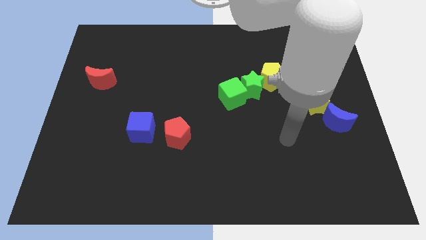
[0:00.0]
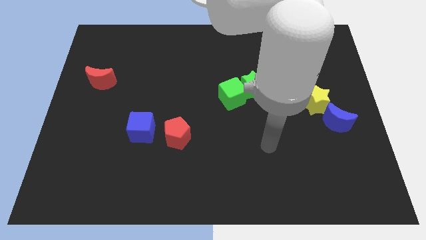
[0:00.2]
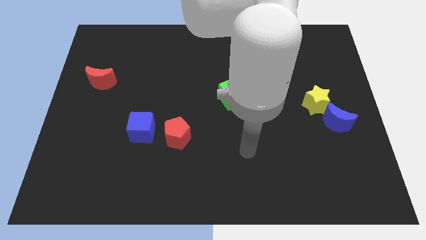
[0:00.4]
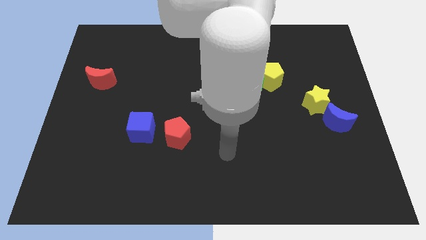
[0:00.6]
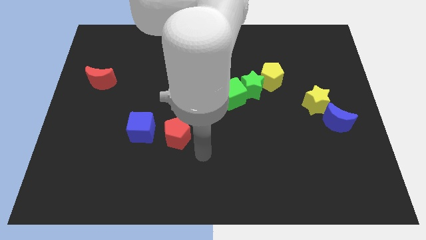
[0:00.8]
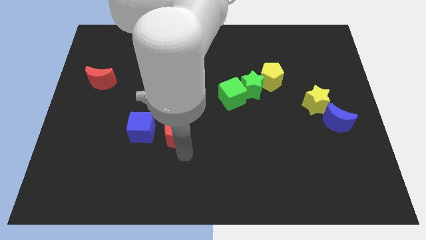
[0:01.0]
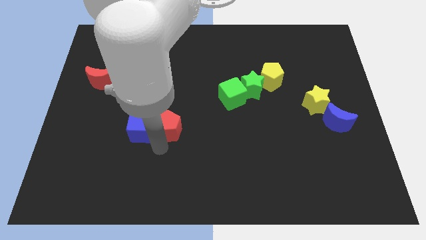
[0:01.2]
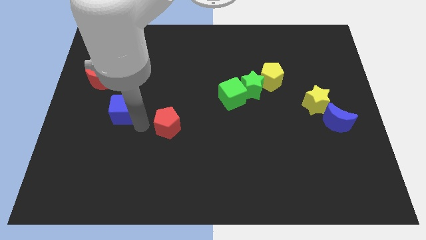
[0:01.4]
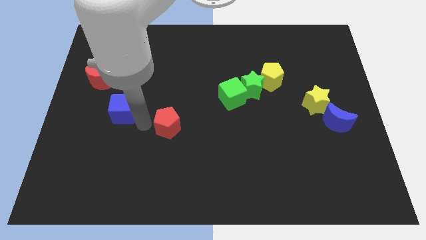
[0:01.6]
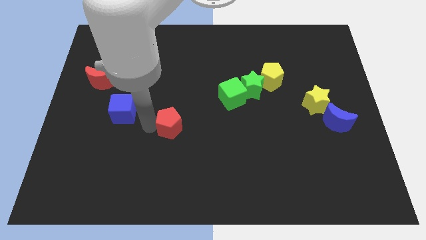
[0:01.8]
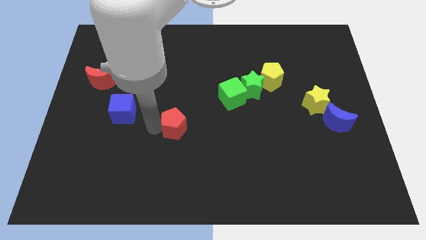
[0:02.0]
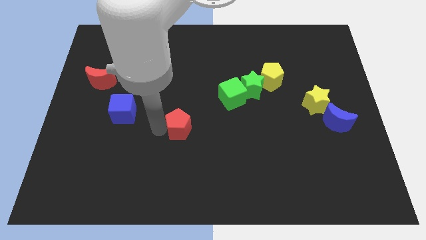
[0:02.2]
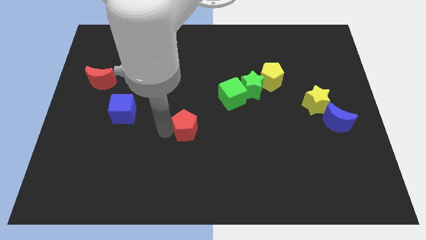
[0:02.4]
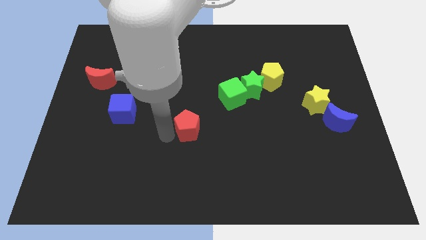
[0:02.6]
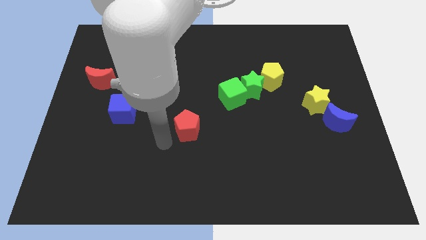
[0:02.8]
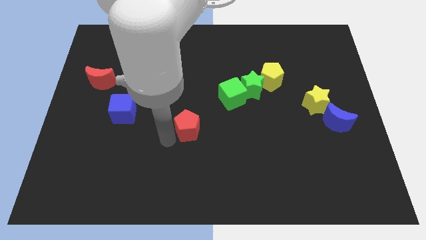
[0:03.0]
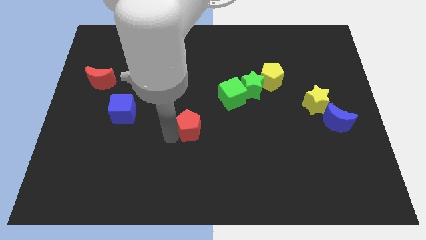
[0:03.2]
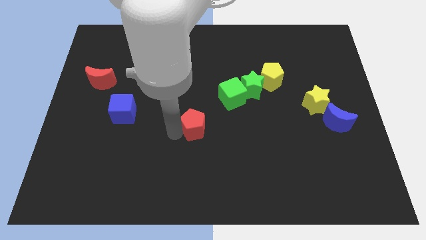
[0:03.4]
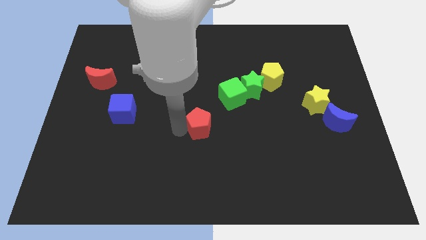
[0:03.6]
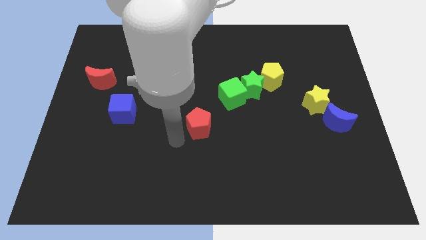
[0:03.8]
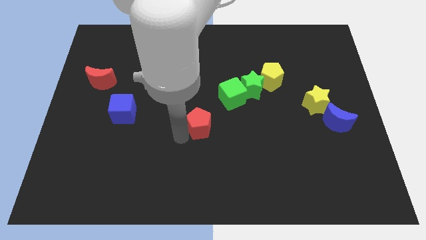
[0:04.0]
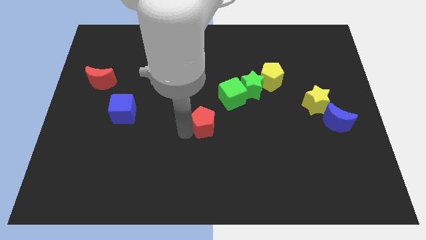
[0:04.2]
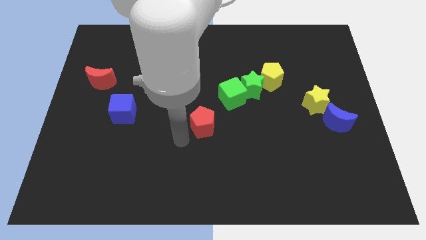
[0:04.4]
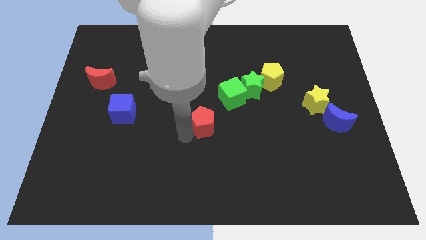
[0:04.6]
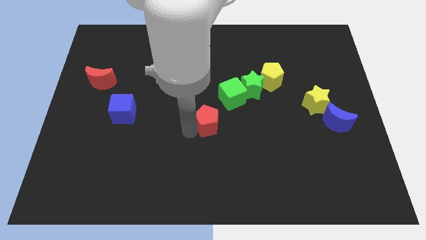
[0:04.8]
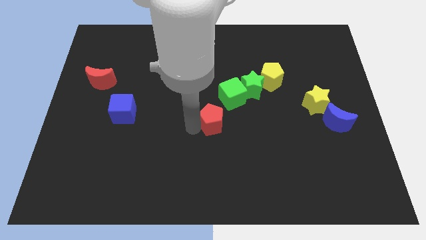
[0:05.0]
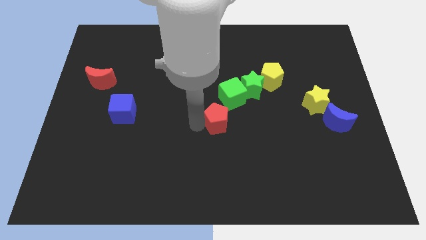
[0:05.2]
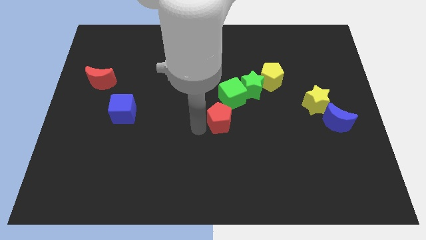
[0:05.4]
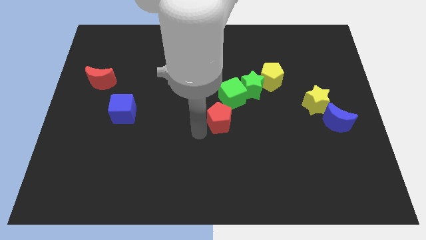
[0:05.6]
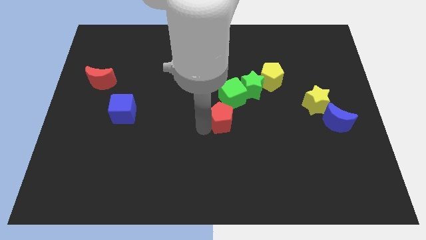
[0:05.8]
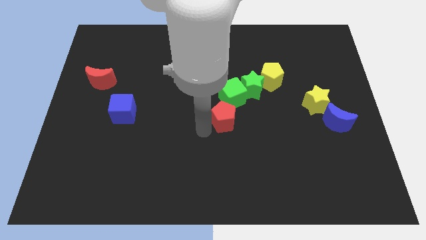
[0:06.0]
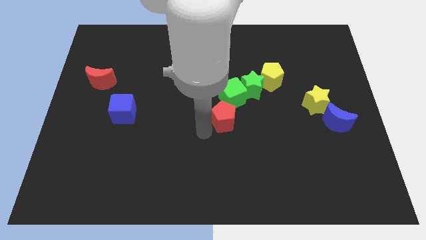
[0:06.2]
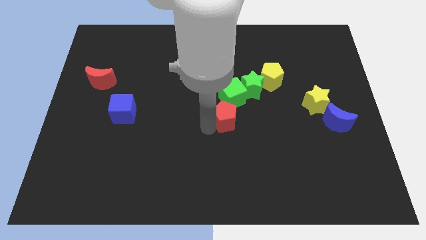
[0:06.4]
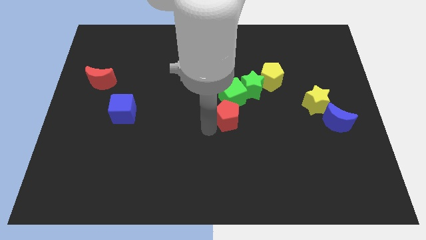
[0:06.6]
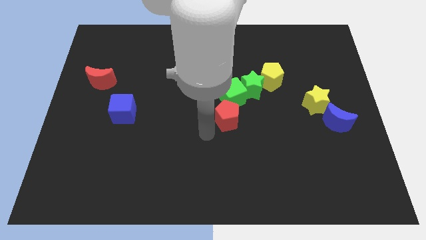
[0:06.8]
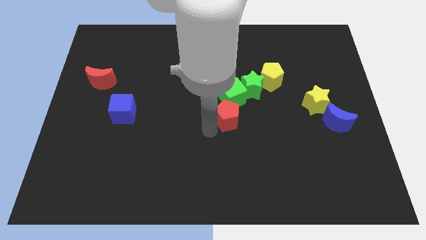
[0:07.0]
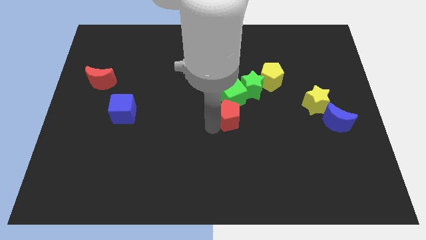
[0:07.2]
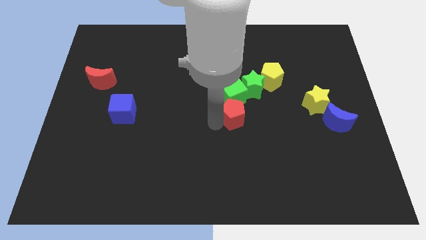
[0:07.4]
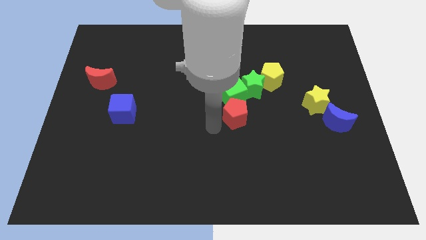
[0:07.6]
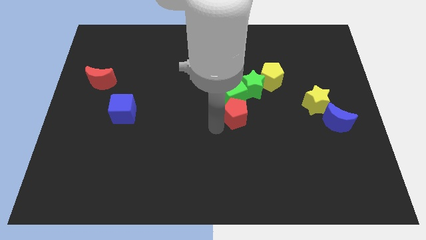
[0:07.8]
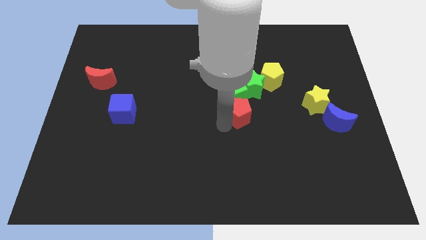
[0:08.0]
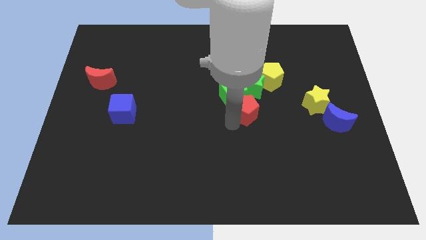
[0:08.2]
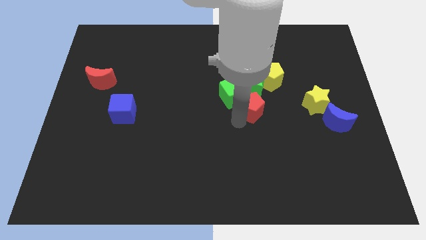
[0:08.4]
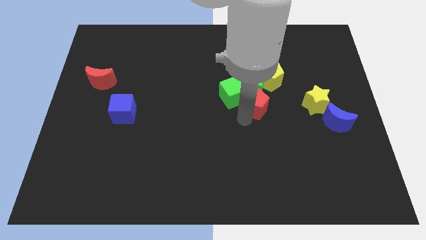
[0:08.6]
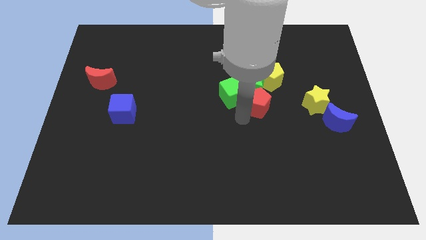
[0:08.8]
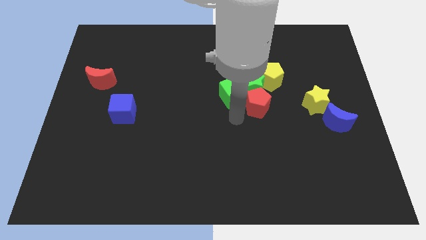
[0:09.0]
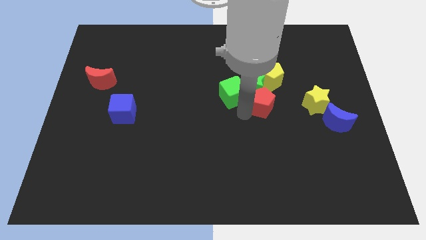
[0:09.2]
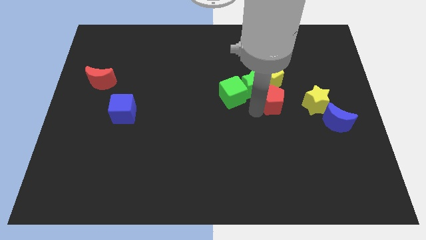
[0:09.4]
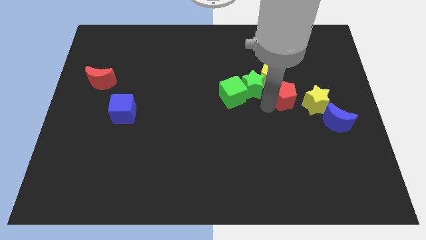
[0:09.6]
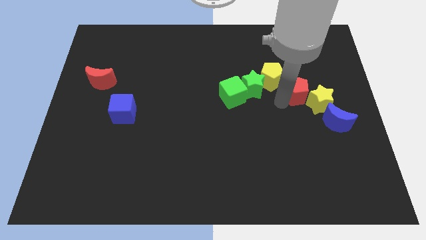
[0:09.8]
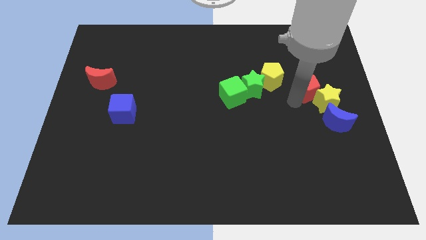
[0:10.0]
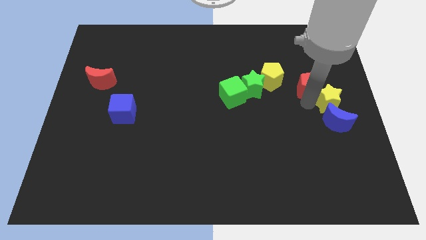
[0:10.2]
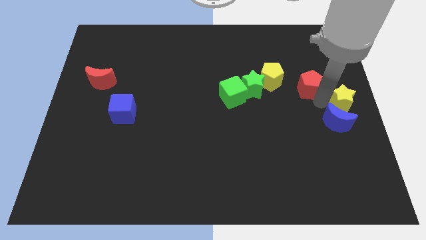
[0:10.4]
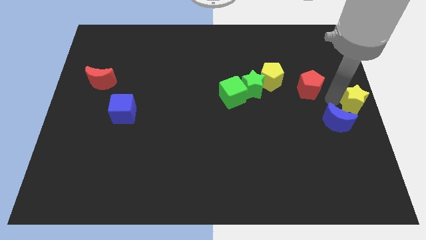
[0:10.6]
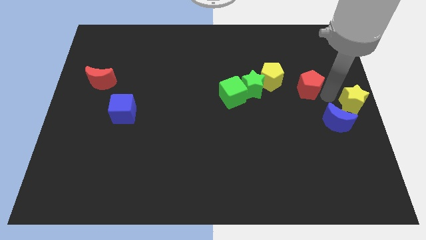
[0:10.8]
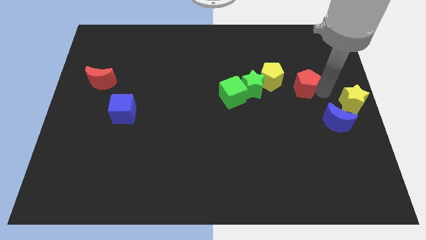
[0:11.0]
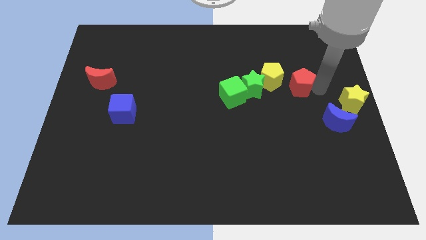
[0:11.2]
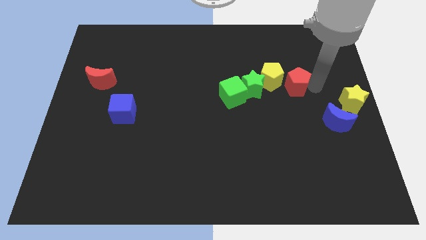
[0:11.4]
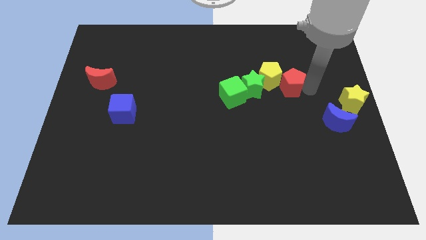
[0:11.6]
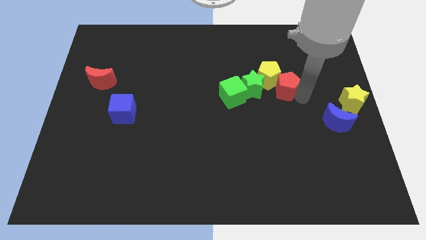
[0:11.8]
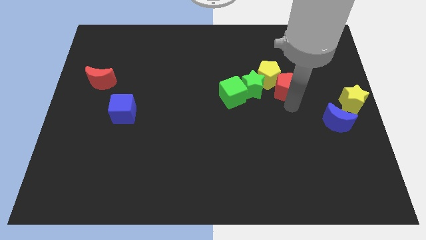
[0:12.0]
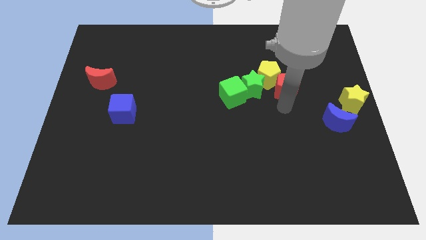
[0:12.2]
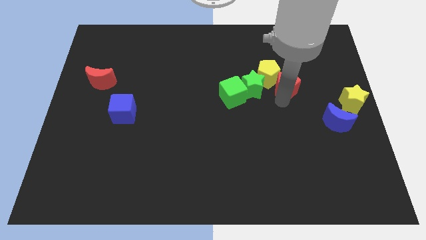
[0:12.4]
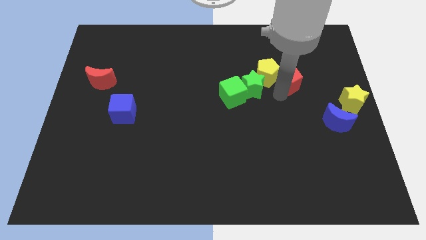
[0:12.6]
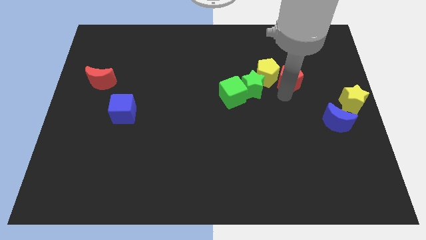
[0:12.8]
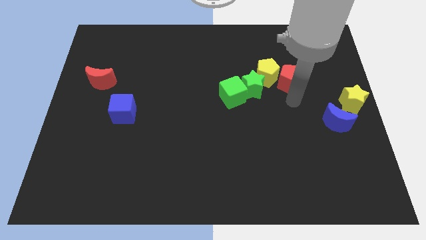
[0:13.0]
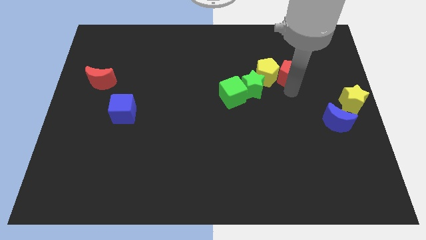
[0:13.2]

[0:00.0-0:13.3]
push the red pentagon diagonally up and to the right of the yellow pentagon
